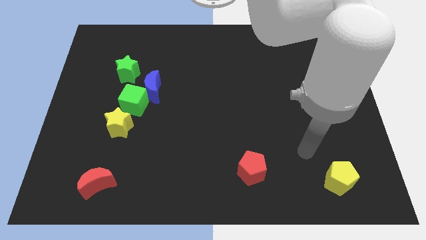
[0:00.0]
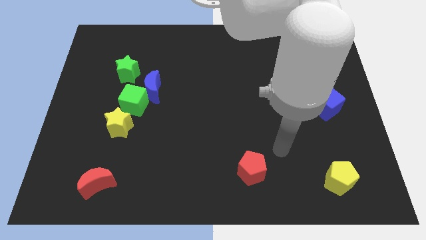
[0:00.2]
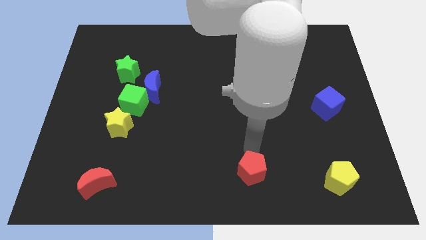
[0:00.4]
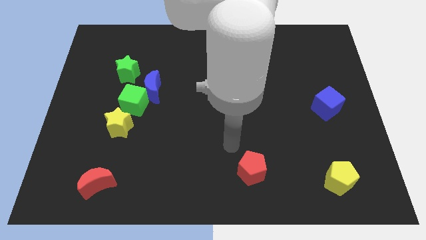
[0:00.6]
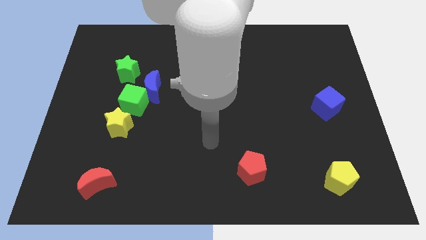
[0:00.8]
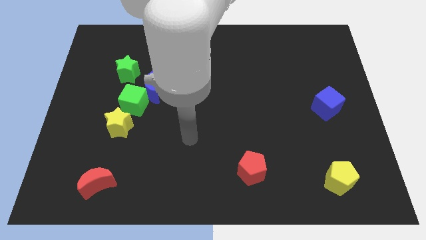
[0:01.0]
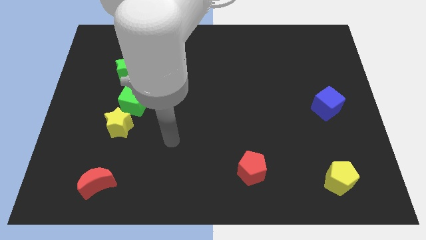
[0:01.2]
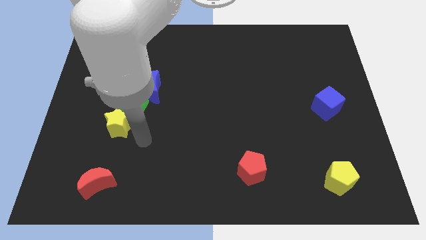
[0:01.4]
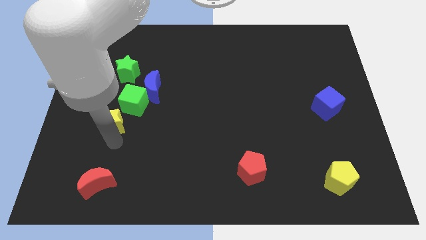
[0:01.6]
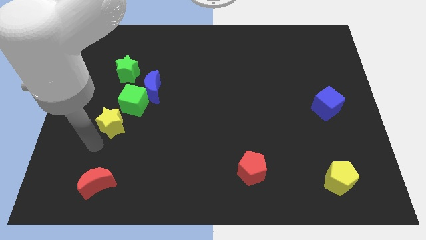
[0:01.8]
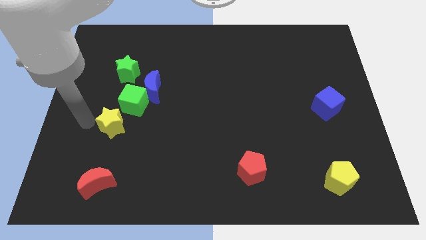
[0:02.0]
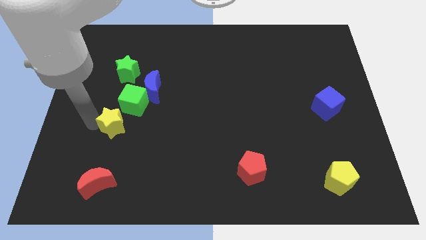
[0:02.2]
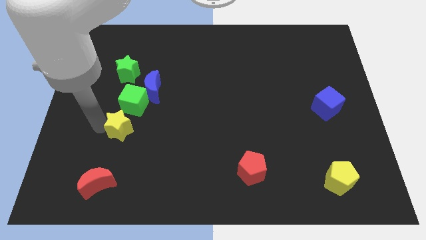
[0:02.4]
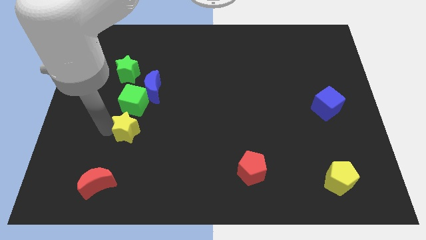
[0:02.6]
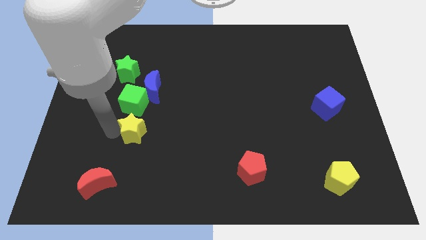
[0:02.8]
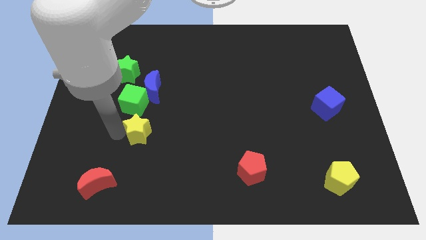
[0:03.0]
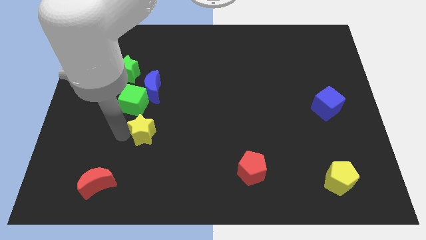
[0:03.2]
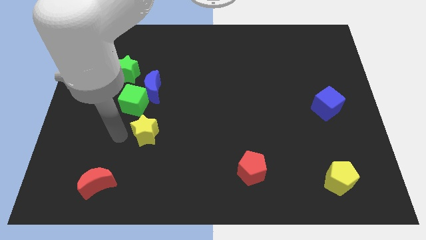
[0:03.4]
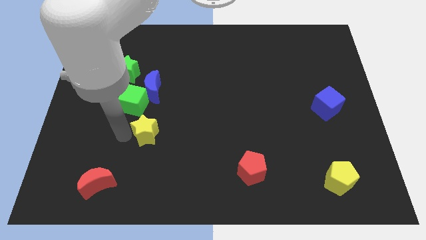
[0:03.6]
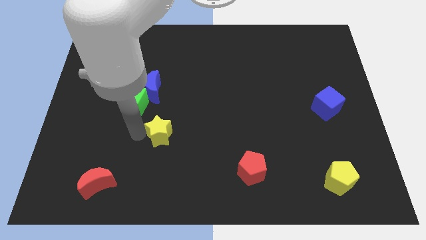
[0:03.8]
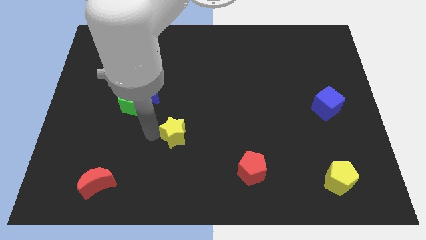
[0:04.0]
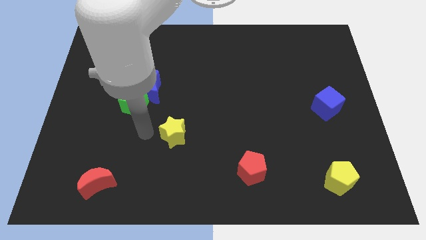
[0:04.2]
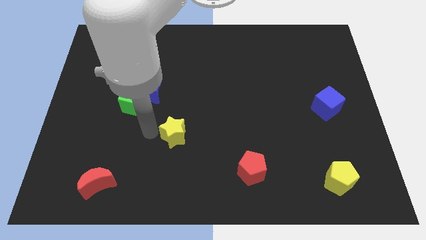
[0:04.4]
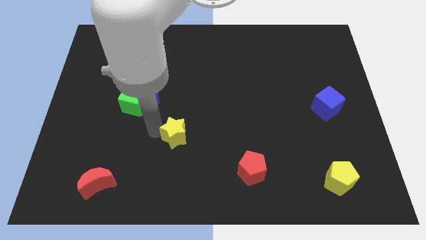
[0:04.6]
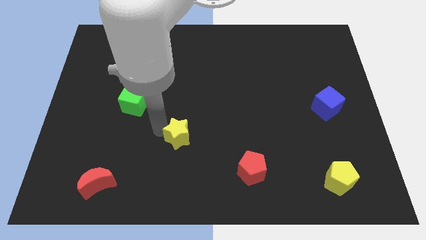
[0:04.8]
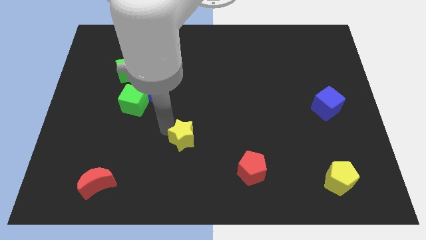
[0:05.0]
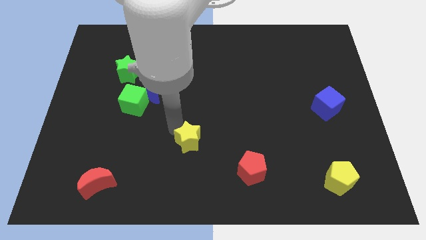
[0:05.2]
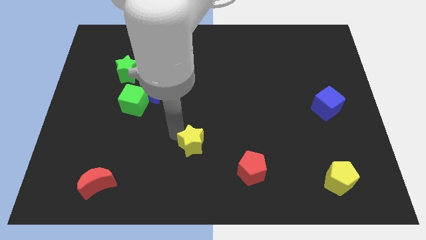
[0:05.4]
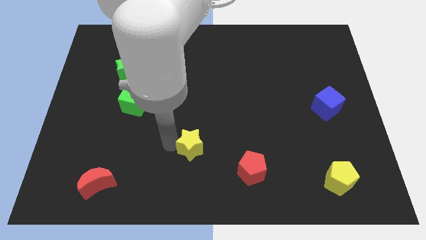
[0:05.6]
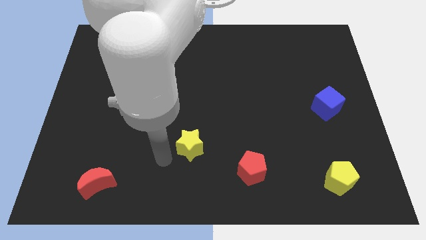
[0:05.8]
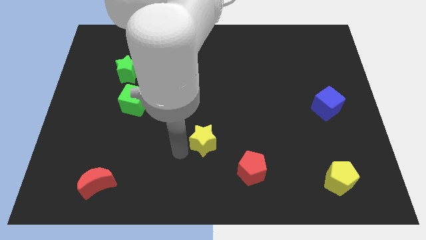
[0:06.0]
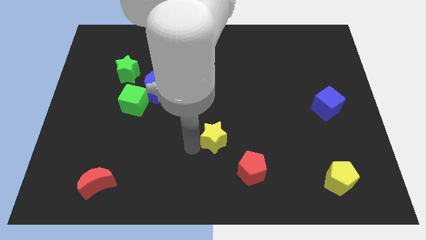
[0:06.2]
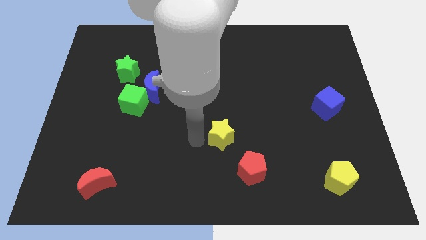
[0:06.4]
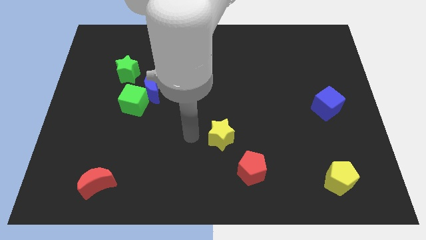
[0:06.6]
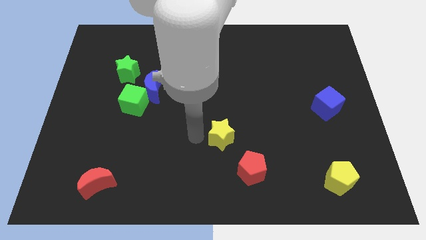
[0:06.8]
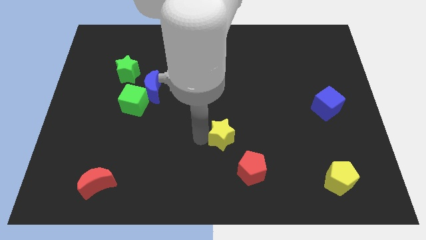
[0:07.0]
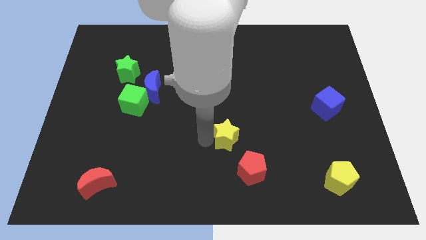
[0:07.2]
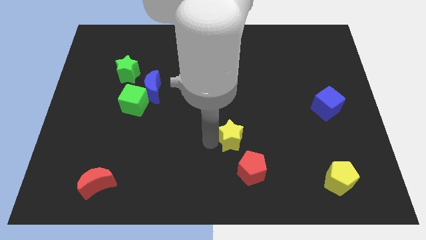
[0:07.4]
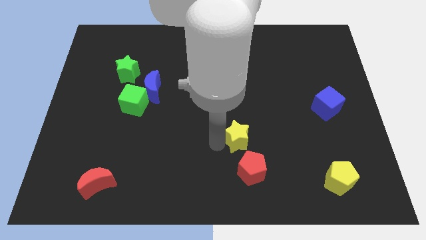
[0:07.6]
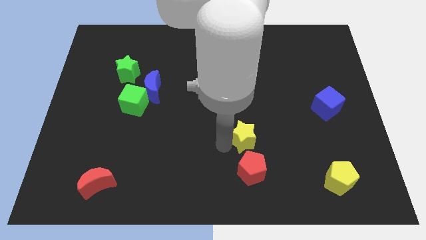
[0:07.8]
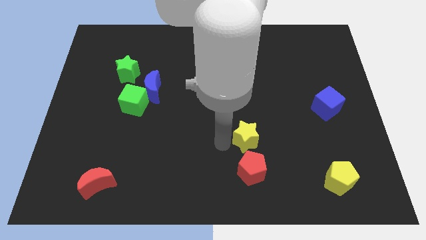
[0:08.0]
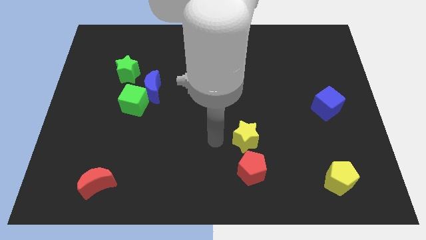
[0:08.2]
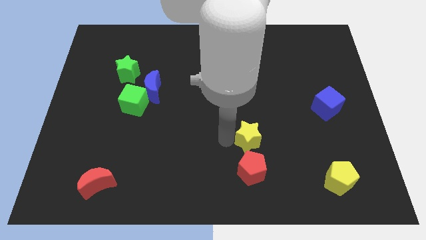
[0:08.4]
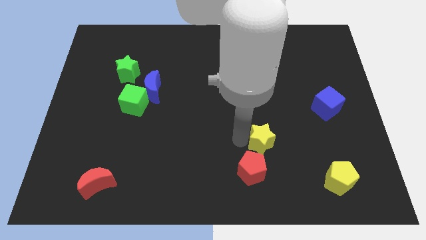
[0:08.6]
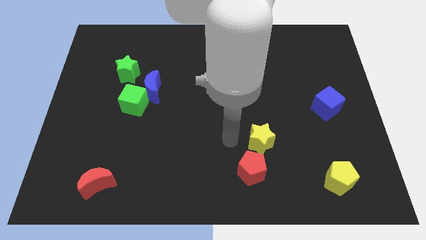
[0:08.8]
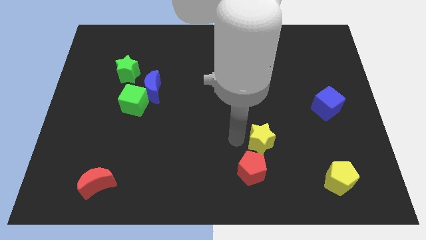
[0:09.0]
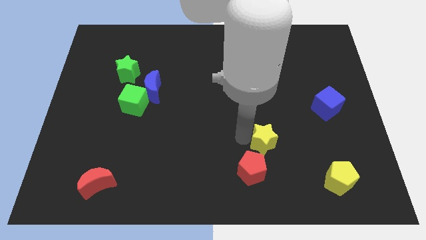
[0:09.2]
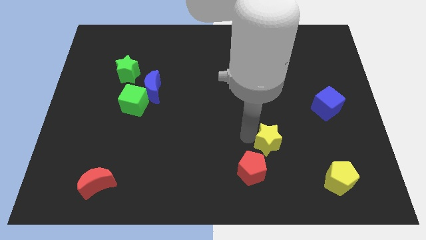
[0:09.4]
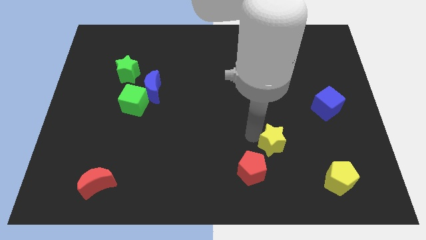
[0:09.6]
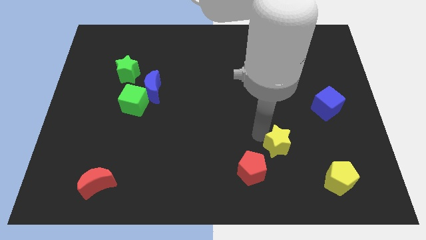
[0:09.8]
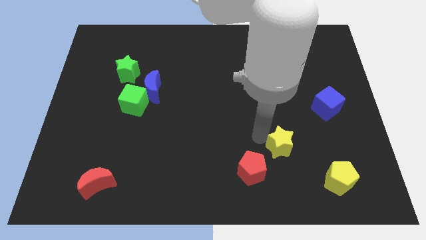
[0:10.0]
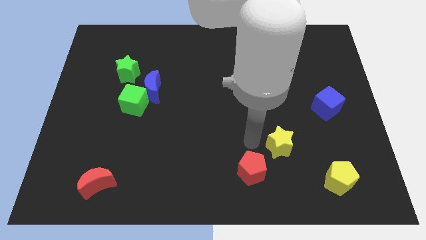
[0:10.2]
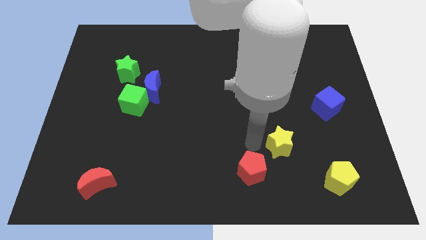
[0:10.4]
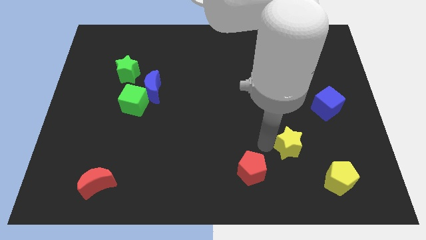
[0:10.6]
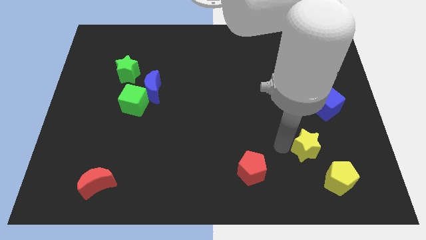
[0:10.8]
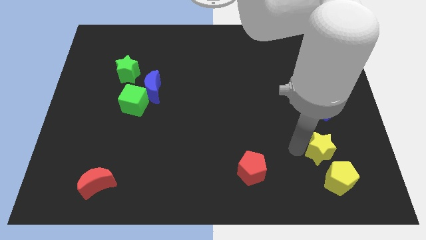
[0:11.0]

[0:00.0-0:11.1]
move the yellow star below the blue cube

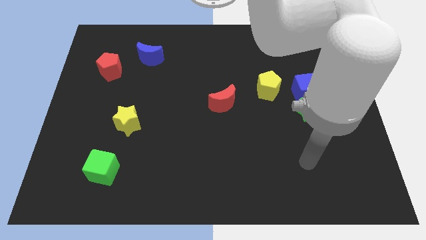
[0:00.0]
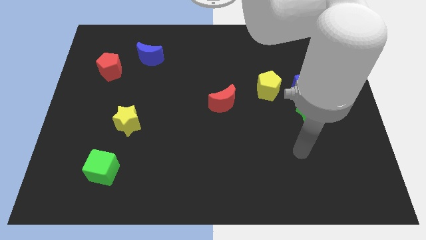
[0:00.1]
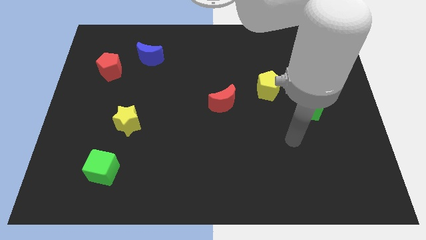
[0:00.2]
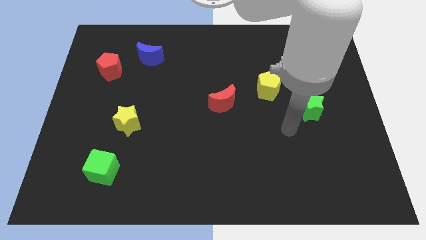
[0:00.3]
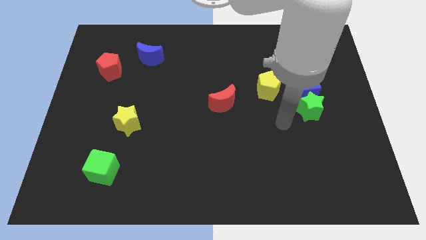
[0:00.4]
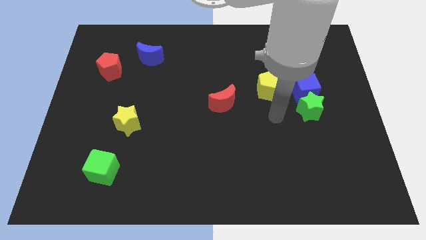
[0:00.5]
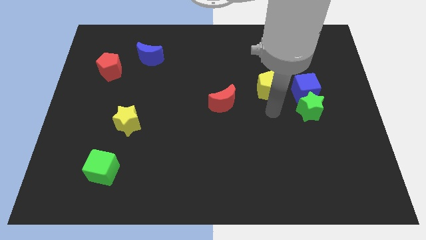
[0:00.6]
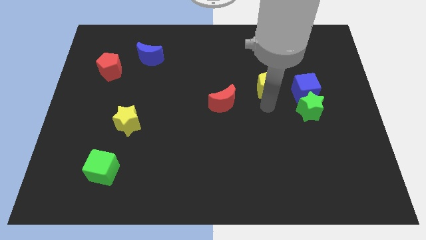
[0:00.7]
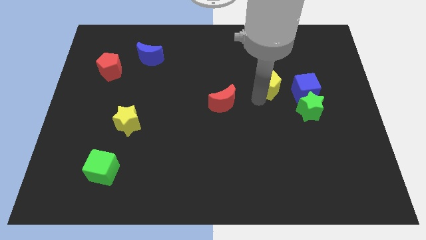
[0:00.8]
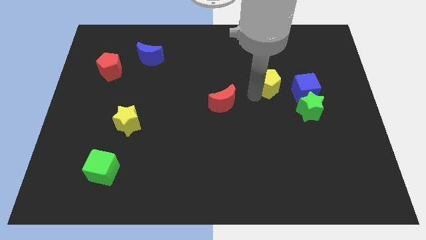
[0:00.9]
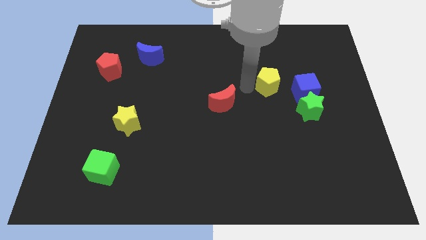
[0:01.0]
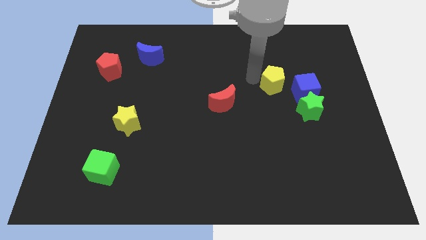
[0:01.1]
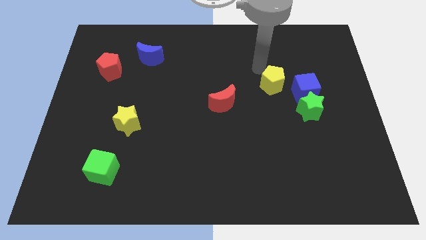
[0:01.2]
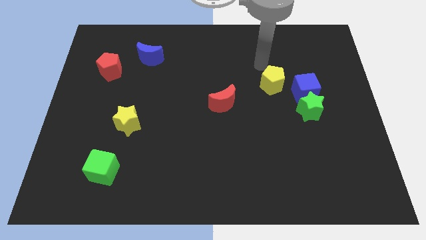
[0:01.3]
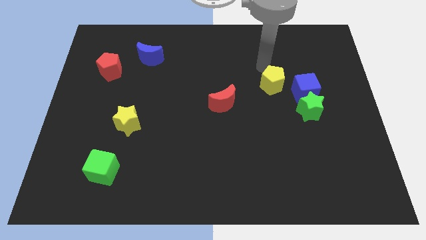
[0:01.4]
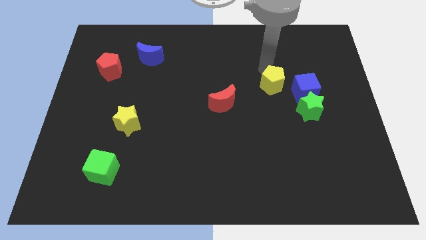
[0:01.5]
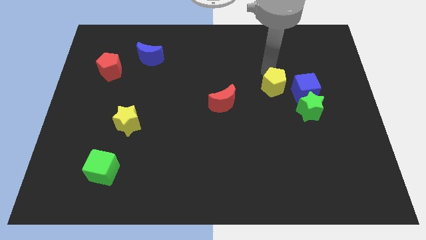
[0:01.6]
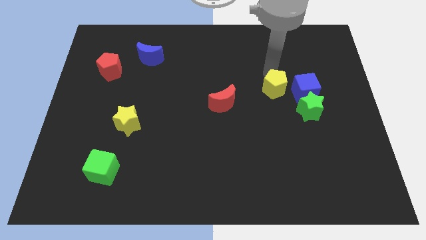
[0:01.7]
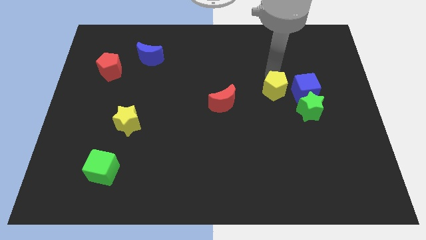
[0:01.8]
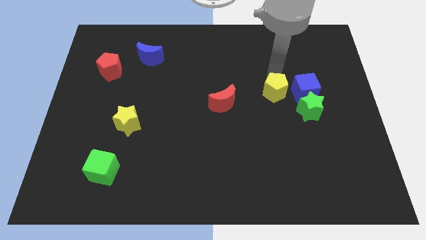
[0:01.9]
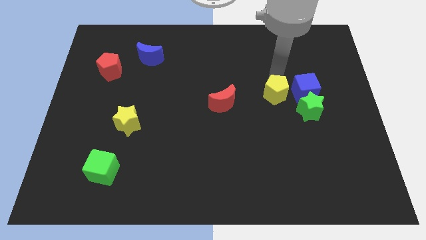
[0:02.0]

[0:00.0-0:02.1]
put the yellow pentagon to the bottom left of the blue cube
